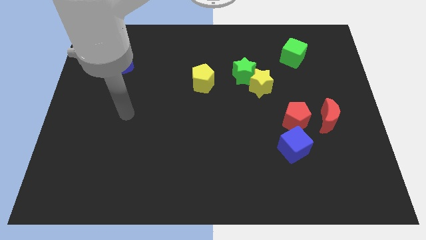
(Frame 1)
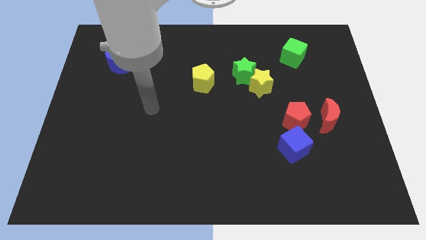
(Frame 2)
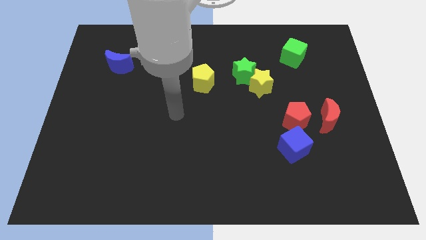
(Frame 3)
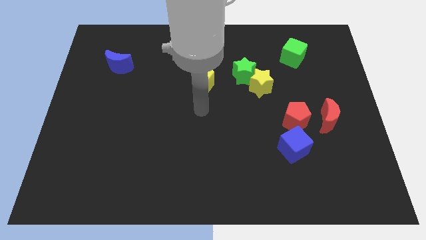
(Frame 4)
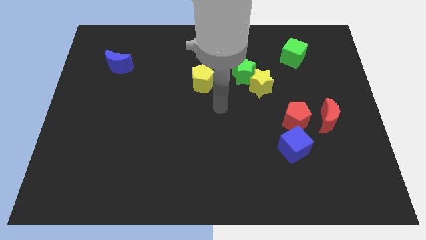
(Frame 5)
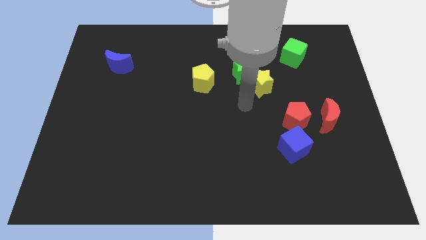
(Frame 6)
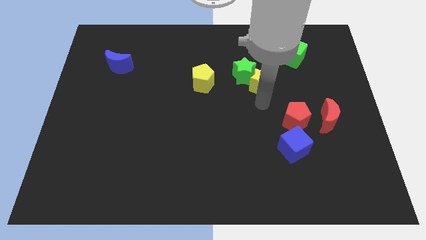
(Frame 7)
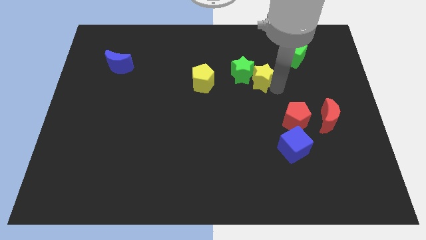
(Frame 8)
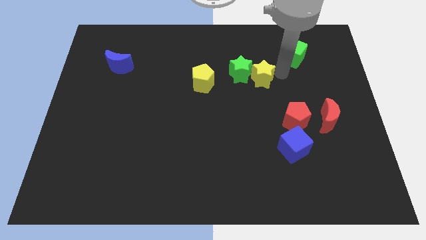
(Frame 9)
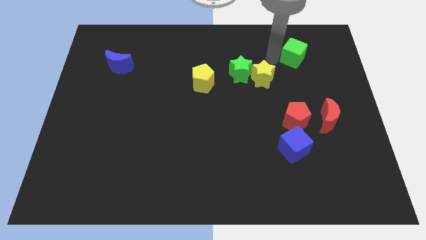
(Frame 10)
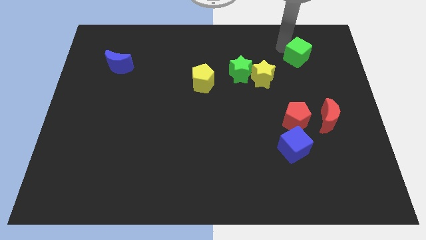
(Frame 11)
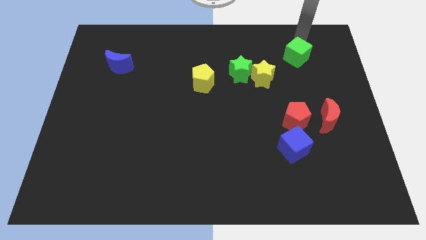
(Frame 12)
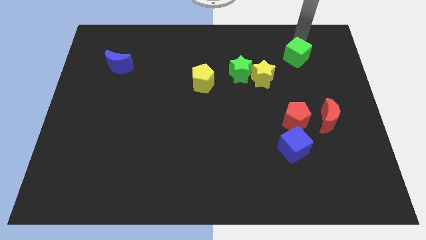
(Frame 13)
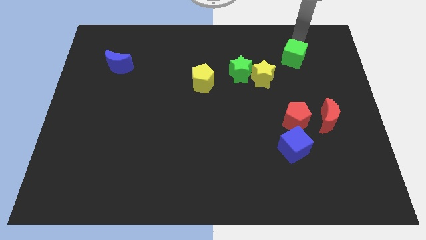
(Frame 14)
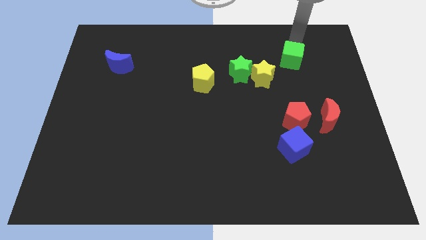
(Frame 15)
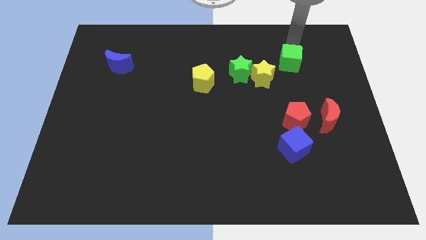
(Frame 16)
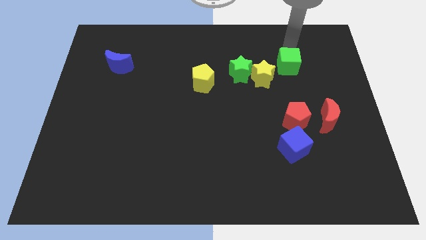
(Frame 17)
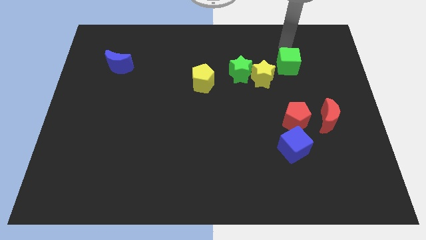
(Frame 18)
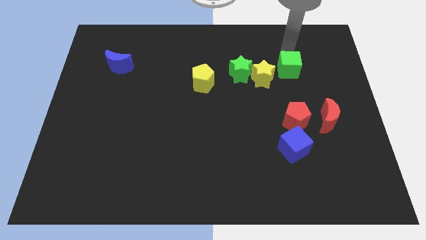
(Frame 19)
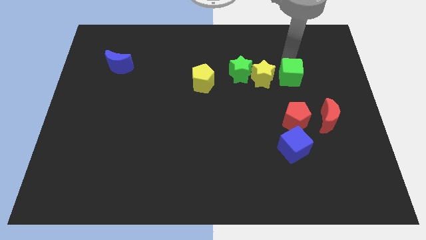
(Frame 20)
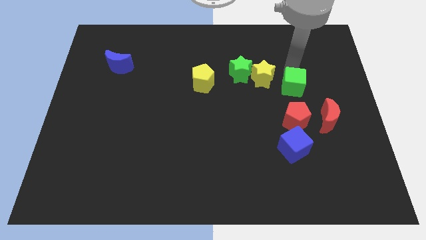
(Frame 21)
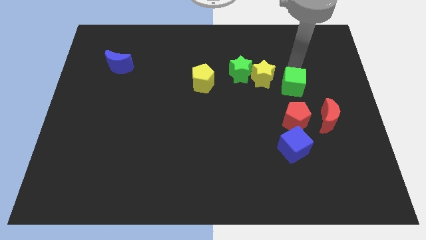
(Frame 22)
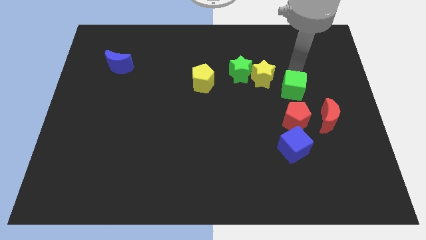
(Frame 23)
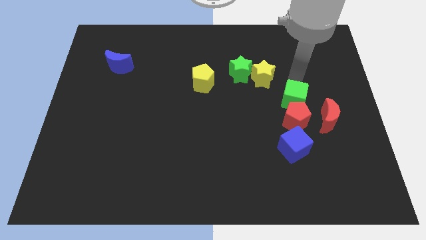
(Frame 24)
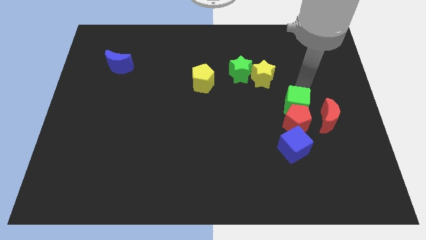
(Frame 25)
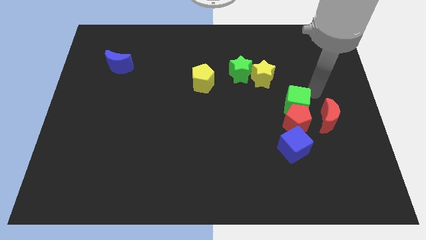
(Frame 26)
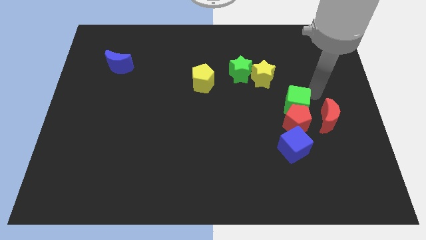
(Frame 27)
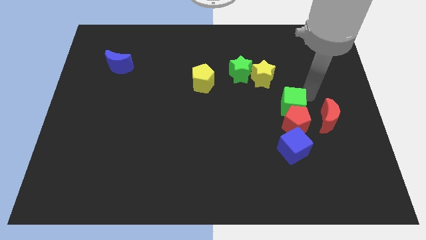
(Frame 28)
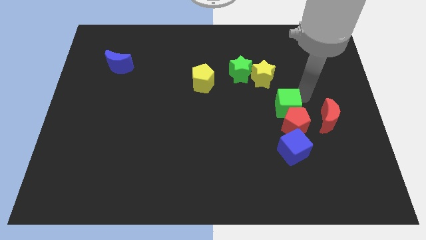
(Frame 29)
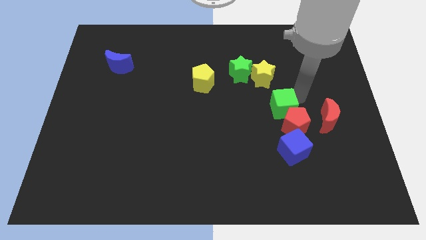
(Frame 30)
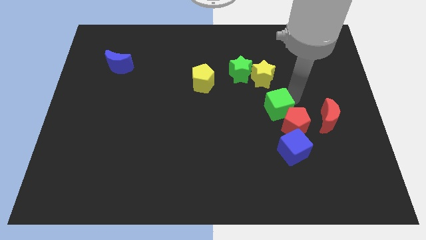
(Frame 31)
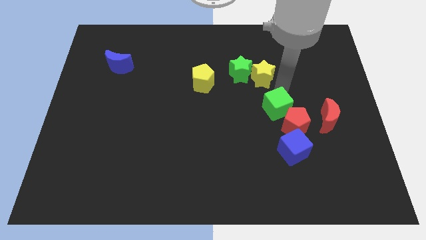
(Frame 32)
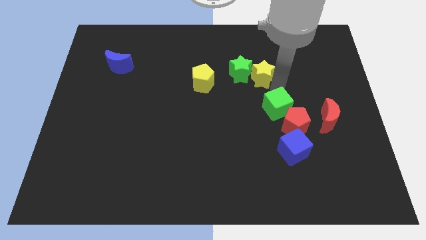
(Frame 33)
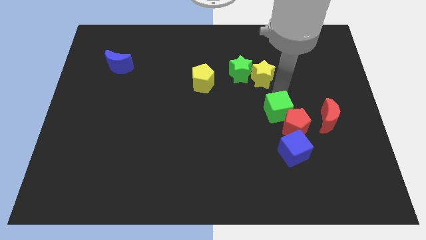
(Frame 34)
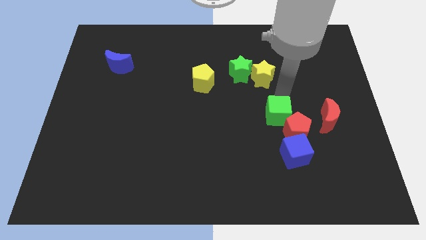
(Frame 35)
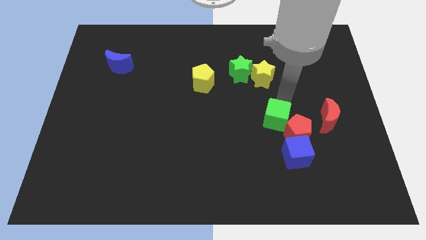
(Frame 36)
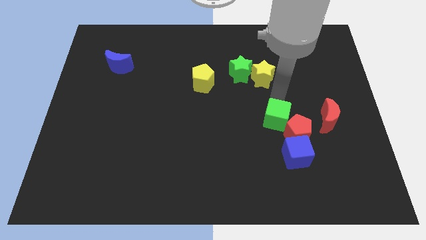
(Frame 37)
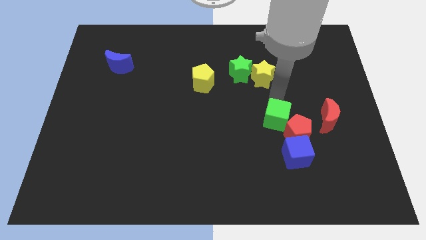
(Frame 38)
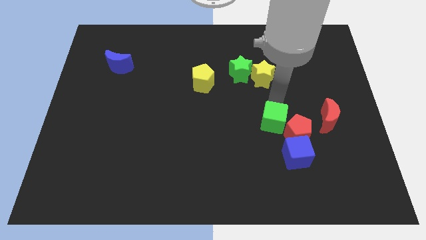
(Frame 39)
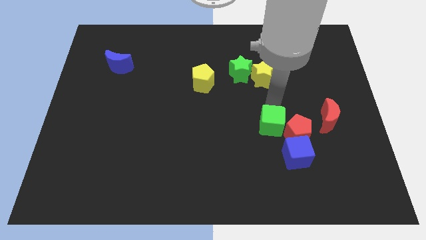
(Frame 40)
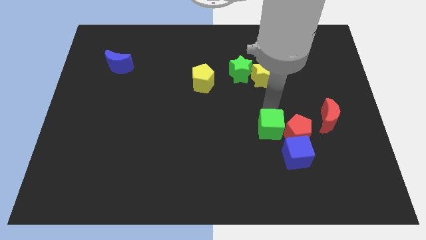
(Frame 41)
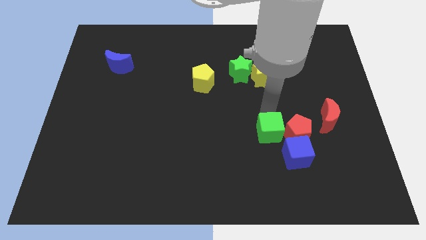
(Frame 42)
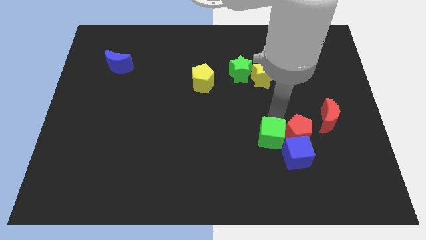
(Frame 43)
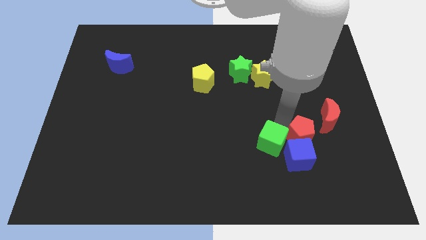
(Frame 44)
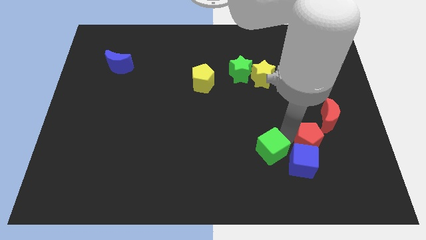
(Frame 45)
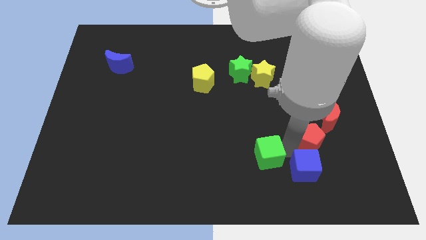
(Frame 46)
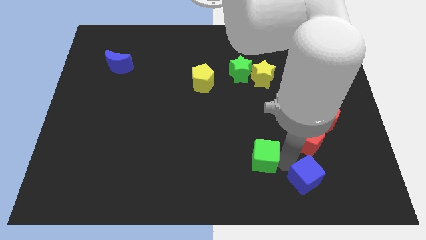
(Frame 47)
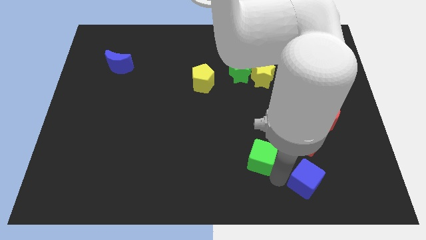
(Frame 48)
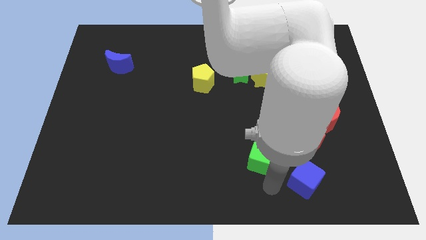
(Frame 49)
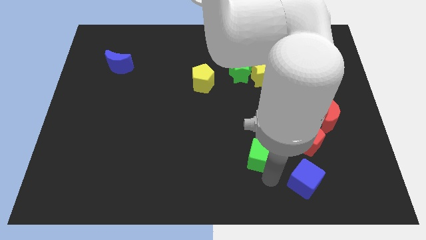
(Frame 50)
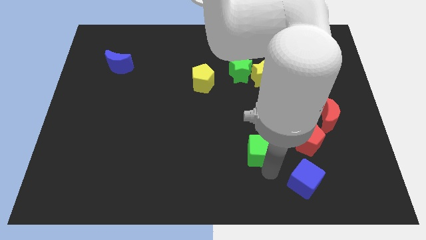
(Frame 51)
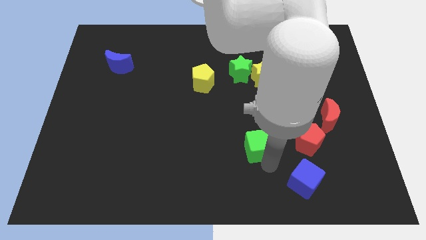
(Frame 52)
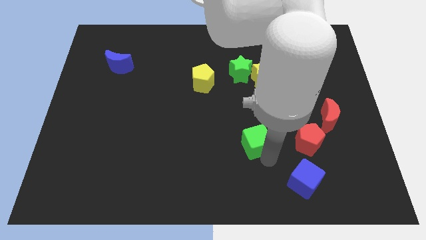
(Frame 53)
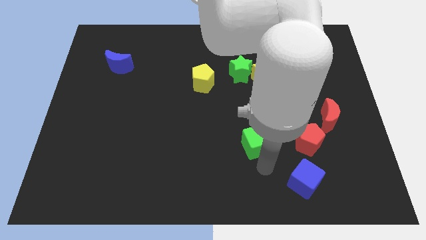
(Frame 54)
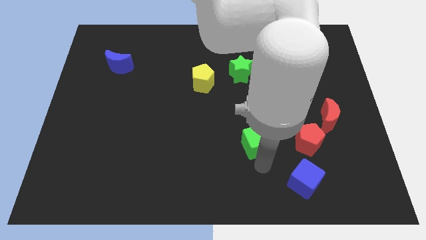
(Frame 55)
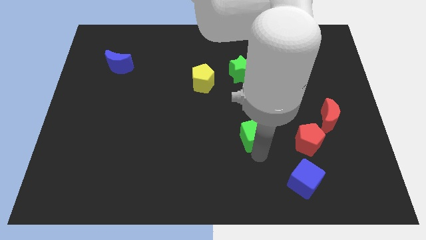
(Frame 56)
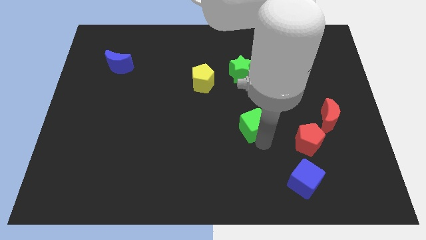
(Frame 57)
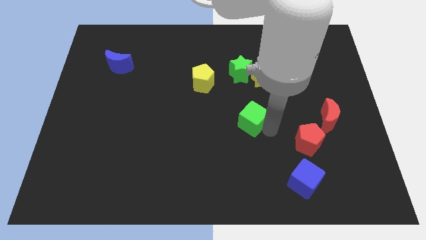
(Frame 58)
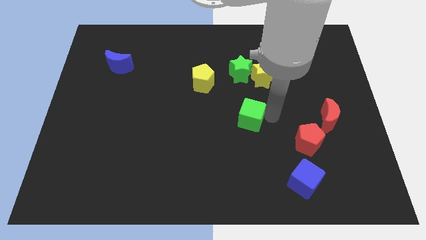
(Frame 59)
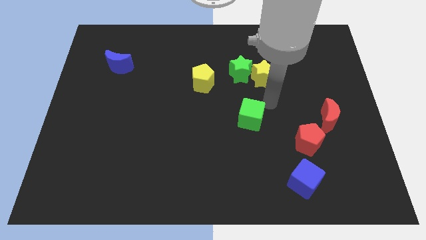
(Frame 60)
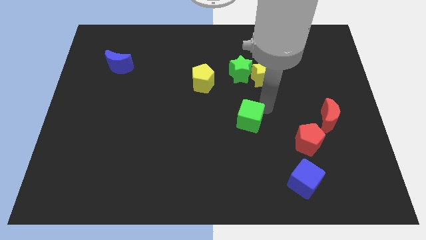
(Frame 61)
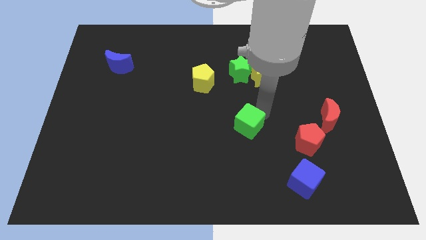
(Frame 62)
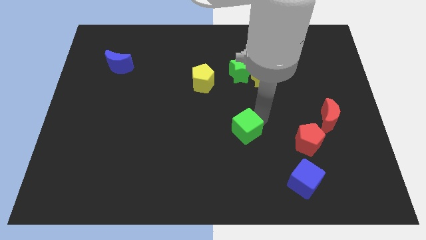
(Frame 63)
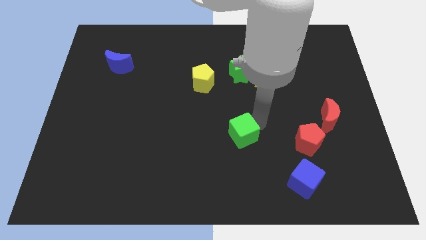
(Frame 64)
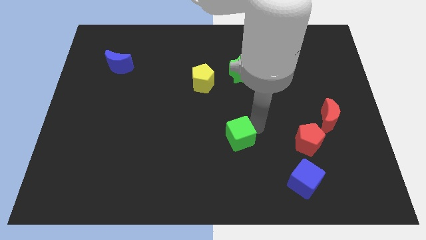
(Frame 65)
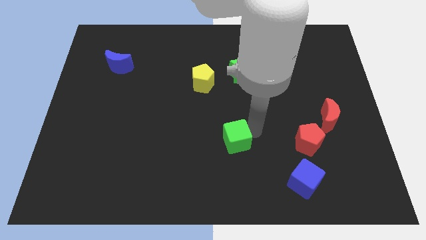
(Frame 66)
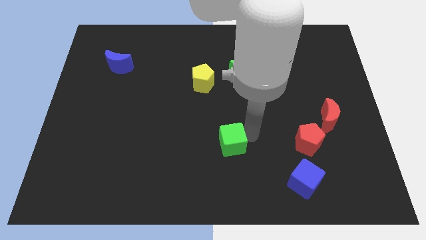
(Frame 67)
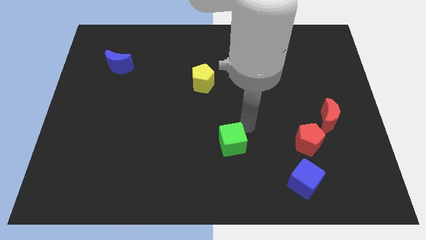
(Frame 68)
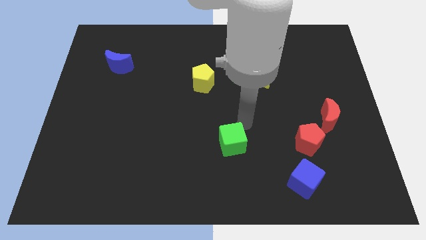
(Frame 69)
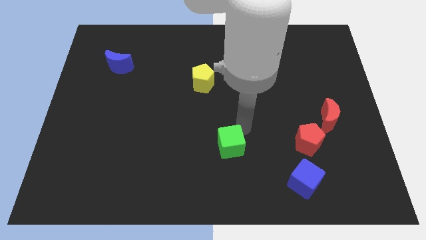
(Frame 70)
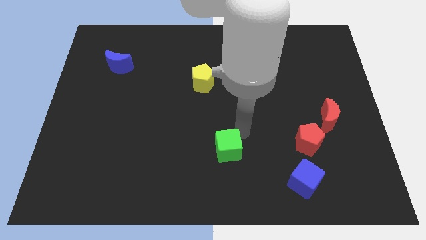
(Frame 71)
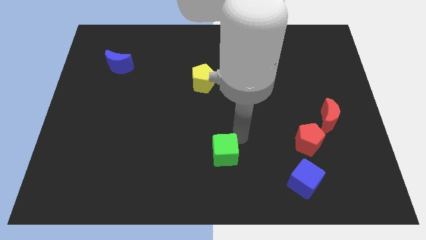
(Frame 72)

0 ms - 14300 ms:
move the green cube to the bottom side
